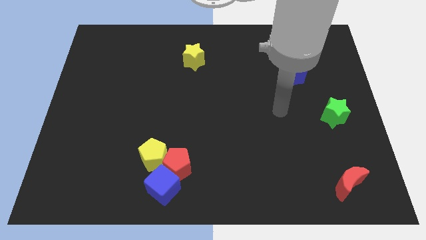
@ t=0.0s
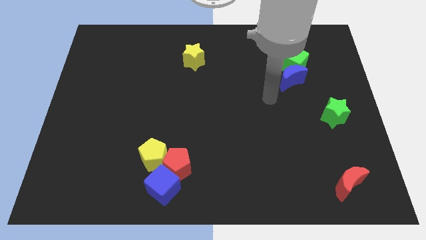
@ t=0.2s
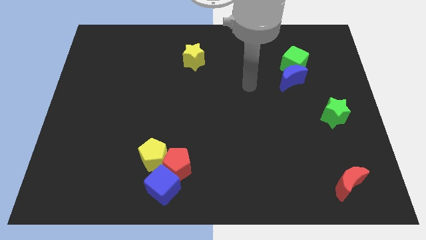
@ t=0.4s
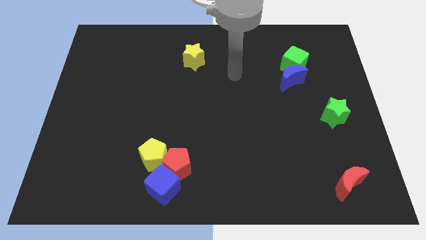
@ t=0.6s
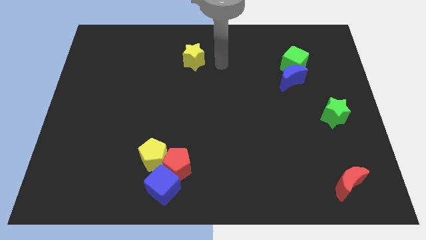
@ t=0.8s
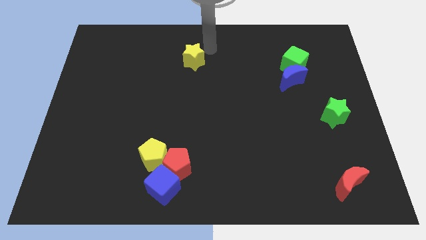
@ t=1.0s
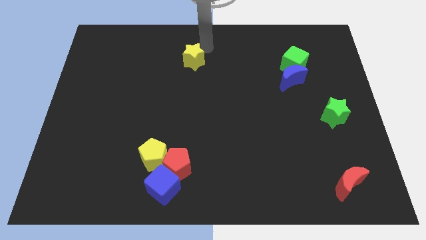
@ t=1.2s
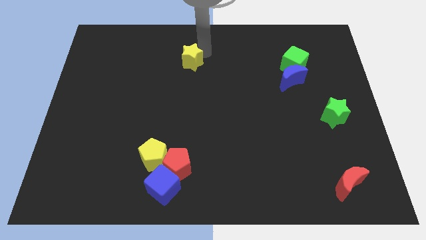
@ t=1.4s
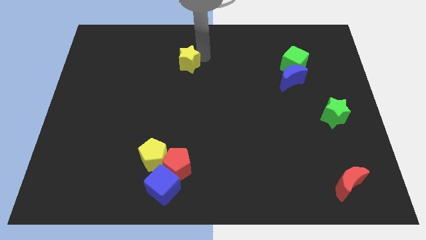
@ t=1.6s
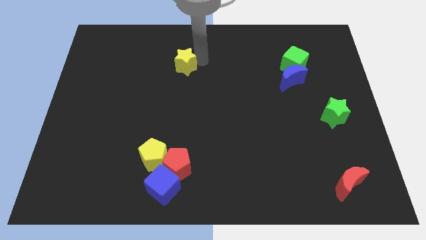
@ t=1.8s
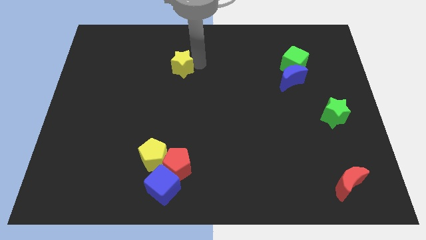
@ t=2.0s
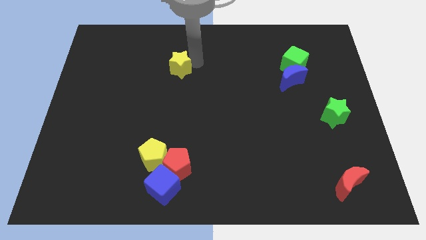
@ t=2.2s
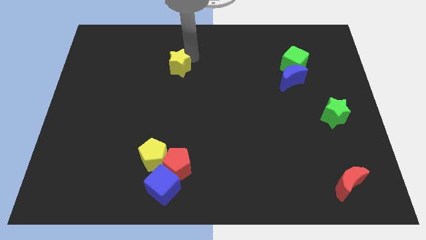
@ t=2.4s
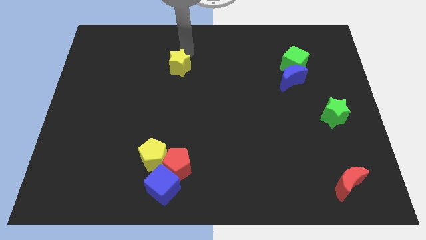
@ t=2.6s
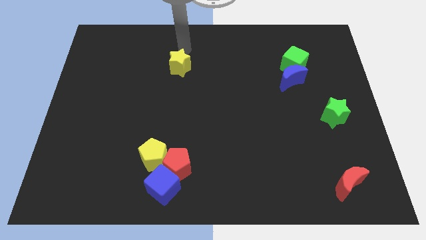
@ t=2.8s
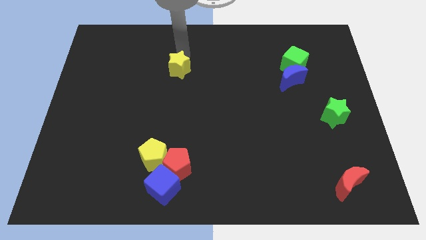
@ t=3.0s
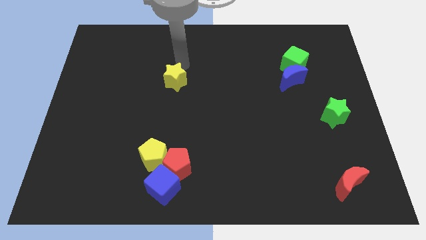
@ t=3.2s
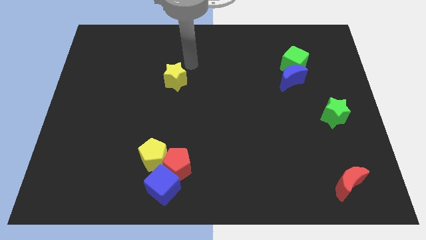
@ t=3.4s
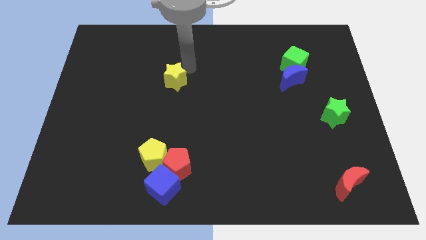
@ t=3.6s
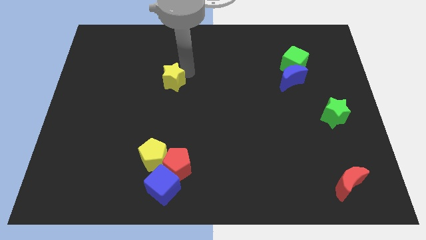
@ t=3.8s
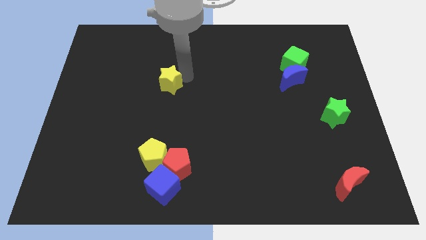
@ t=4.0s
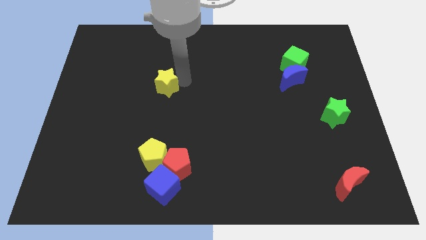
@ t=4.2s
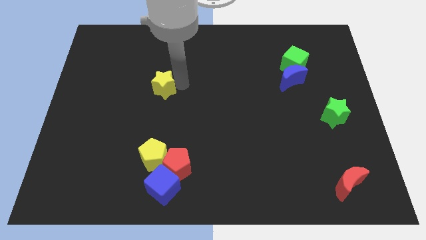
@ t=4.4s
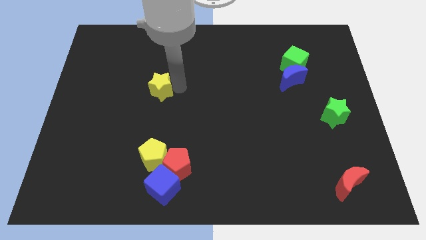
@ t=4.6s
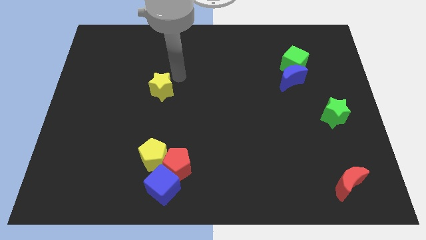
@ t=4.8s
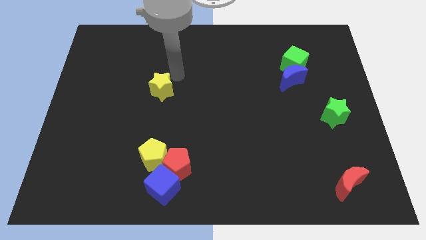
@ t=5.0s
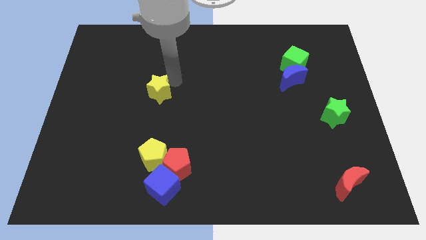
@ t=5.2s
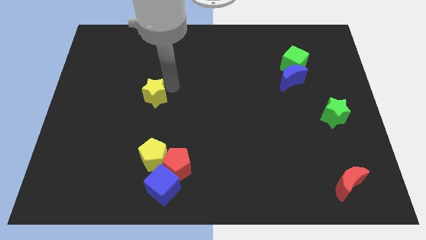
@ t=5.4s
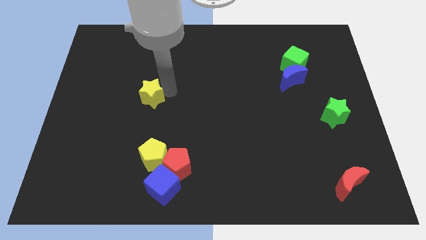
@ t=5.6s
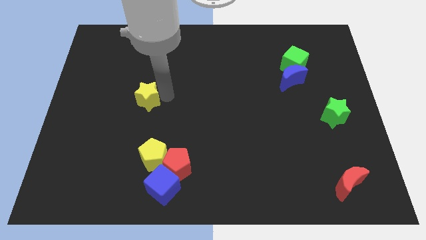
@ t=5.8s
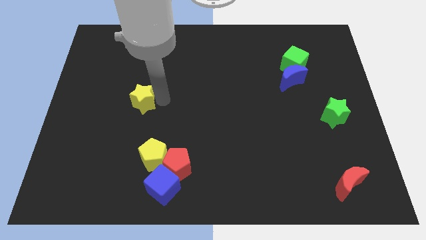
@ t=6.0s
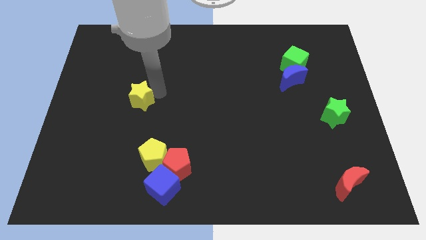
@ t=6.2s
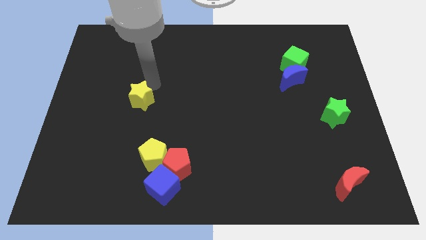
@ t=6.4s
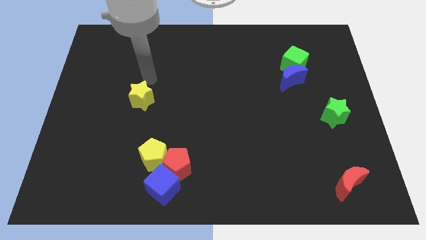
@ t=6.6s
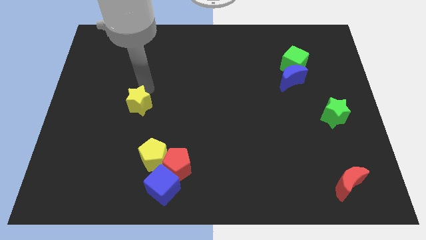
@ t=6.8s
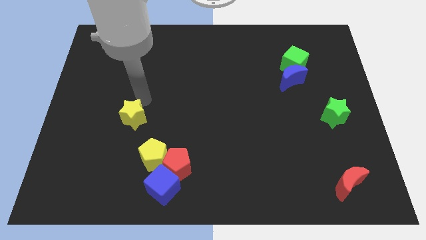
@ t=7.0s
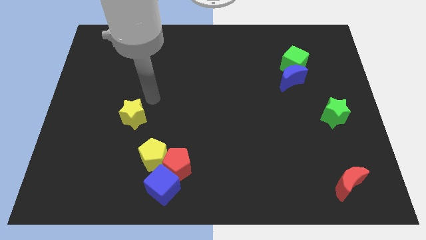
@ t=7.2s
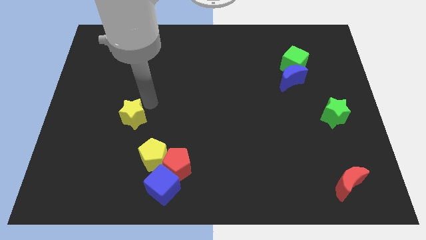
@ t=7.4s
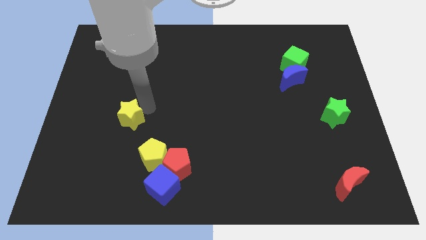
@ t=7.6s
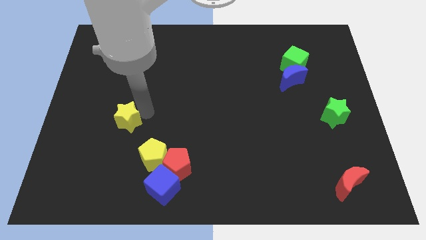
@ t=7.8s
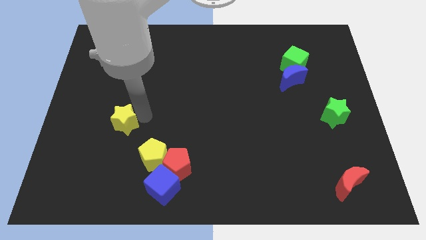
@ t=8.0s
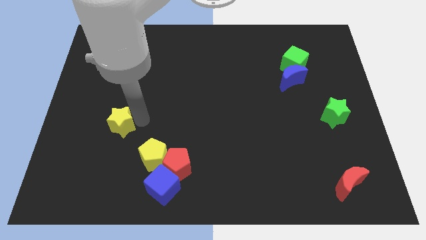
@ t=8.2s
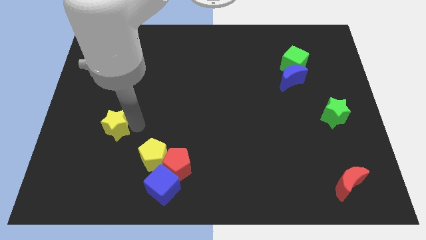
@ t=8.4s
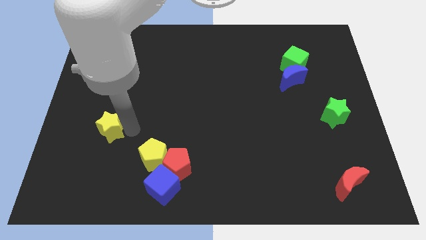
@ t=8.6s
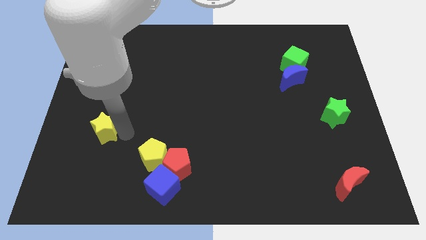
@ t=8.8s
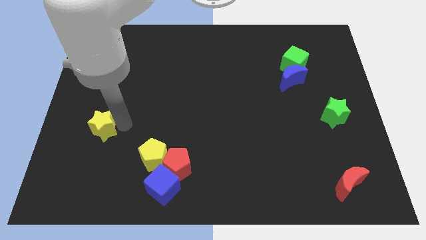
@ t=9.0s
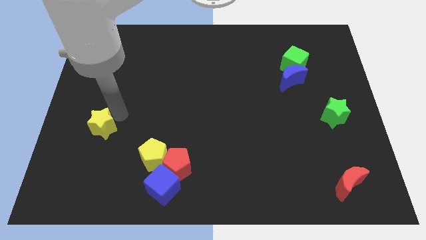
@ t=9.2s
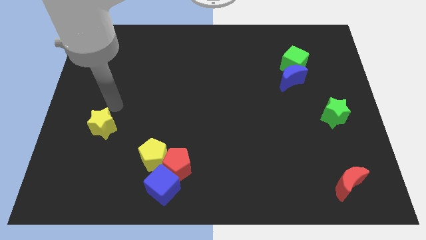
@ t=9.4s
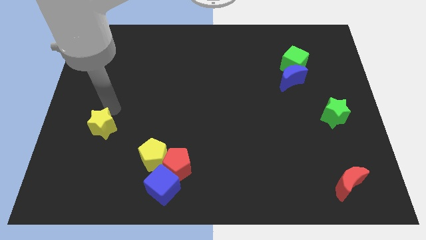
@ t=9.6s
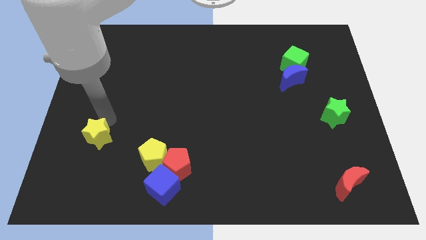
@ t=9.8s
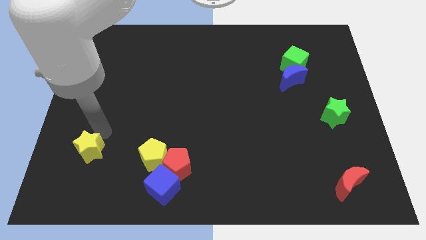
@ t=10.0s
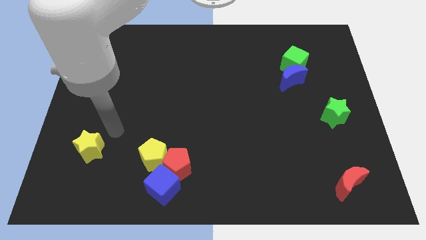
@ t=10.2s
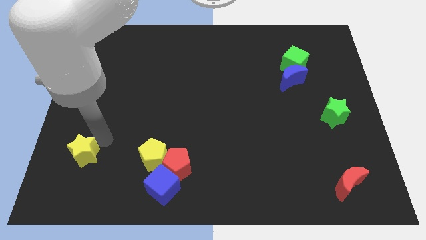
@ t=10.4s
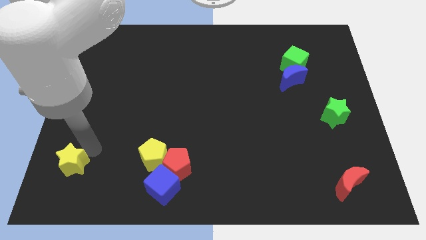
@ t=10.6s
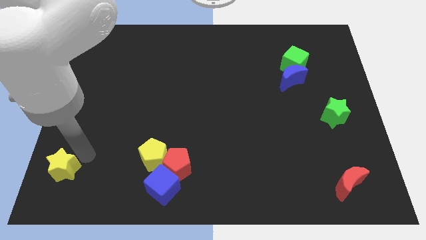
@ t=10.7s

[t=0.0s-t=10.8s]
slide the yellow star to the bottom left of the board
